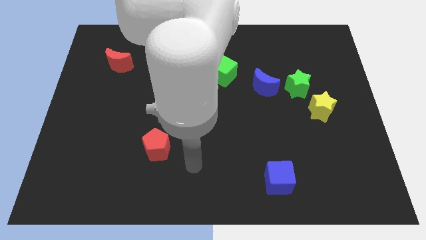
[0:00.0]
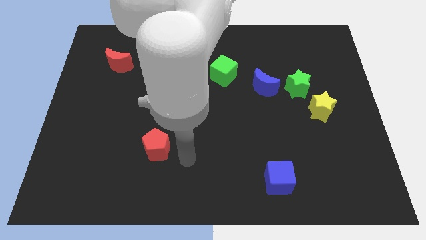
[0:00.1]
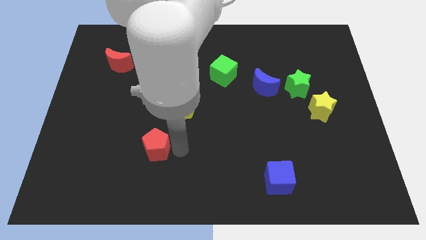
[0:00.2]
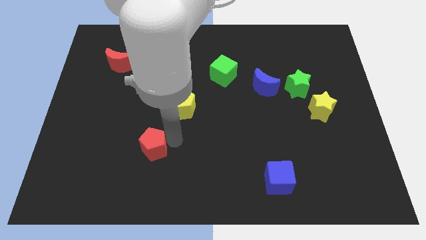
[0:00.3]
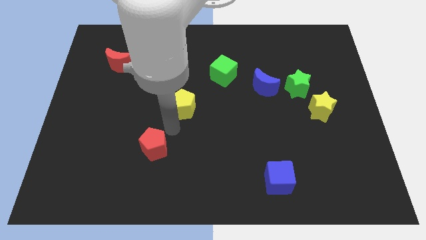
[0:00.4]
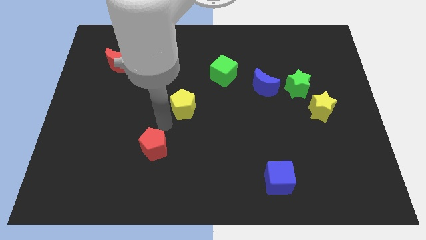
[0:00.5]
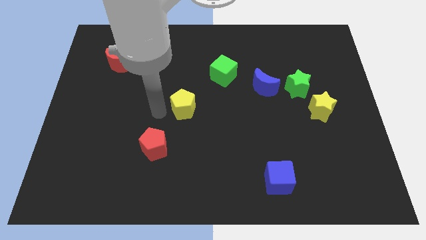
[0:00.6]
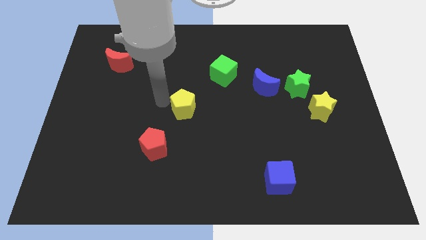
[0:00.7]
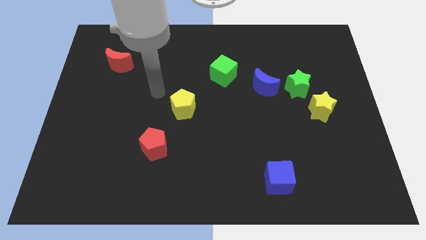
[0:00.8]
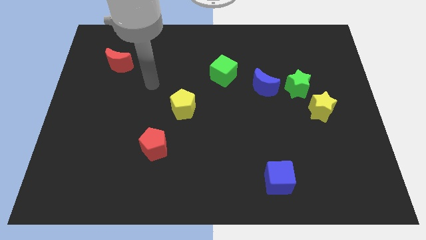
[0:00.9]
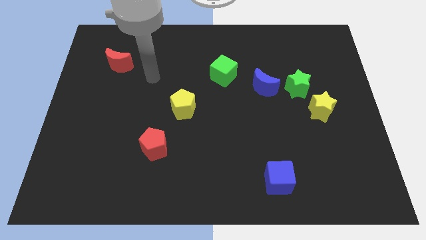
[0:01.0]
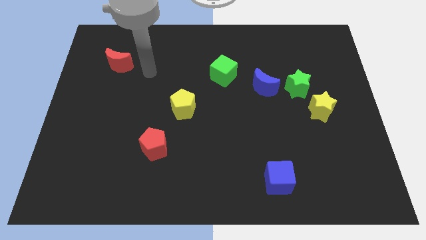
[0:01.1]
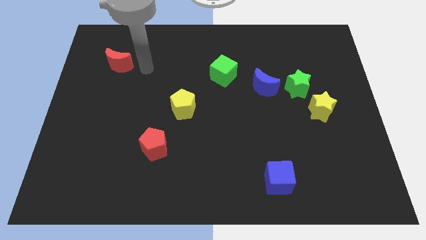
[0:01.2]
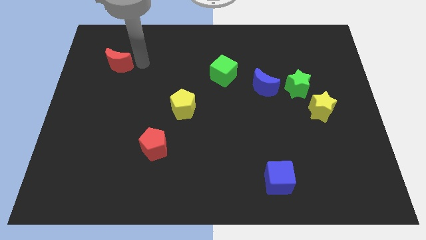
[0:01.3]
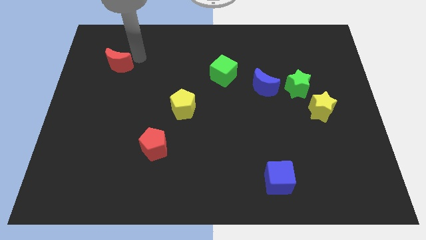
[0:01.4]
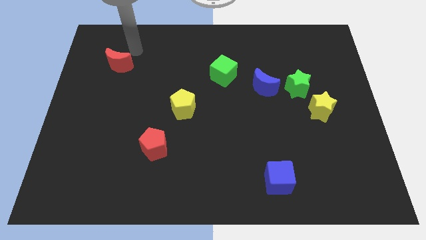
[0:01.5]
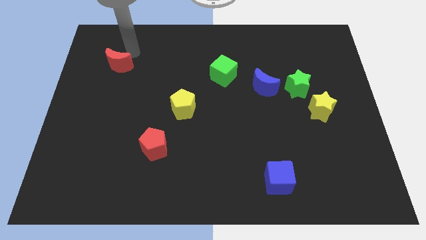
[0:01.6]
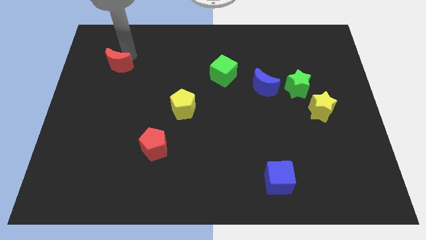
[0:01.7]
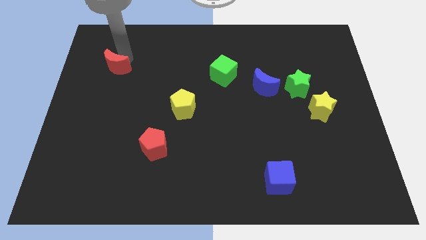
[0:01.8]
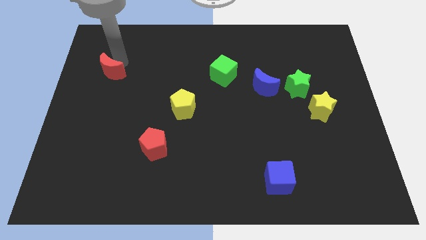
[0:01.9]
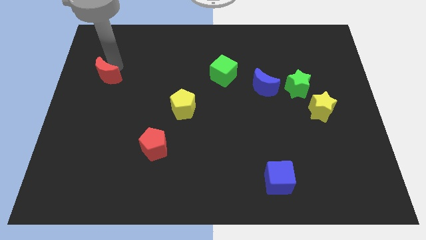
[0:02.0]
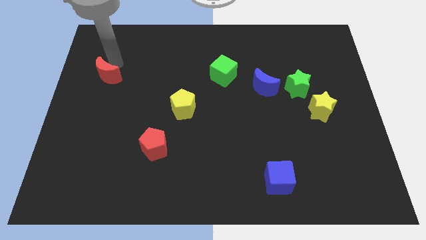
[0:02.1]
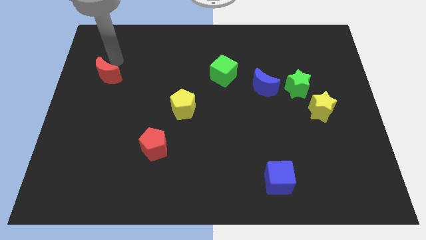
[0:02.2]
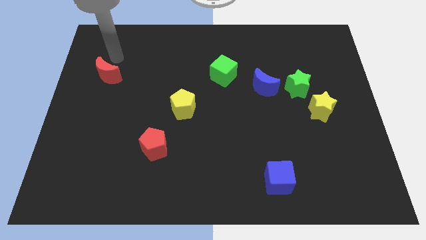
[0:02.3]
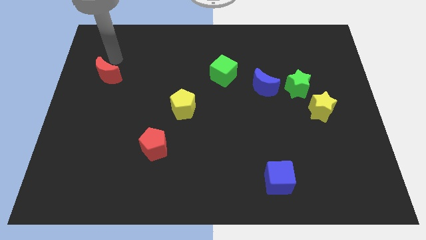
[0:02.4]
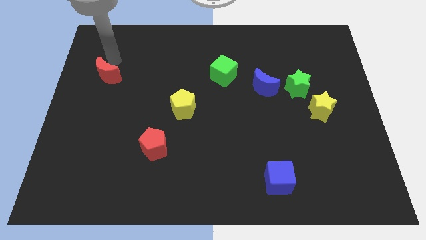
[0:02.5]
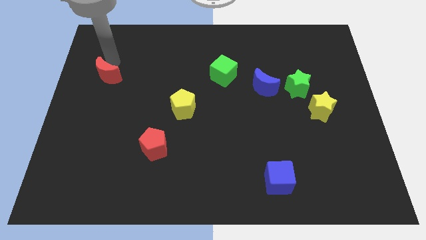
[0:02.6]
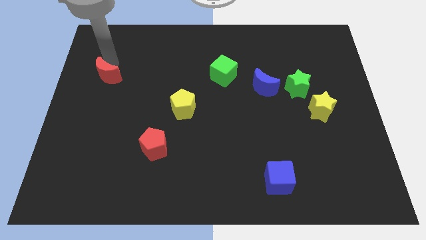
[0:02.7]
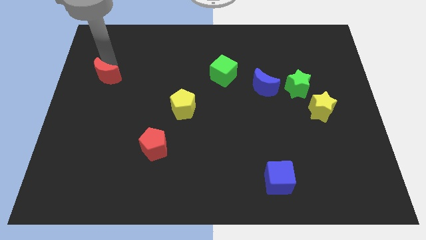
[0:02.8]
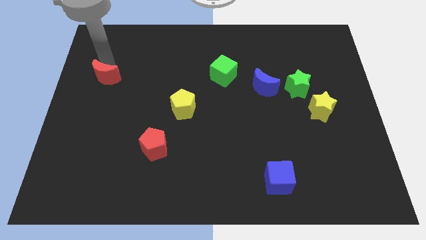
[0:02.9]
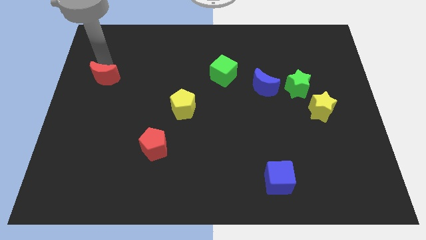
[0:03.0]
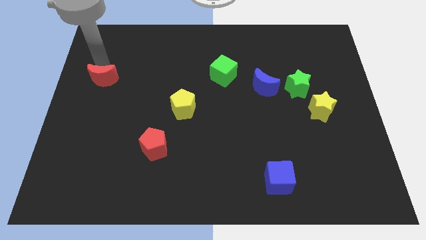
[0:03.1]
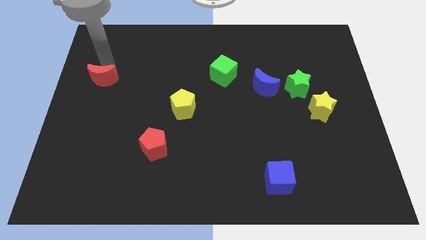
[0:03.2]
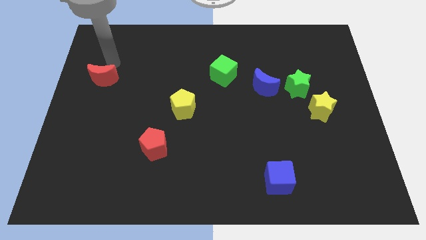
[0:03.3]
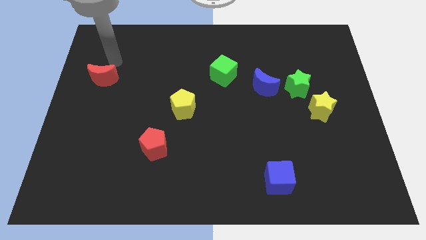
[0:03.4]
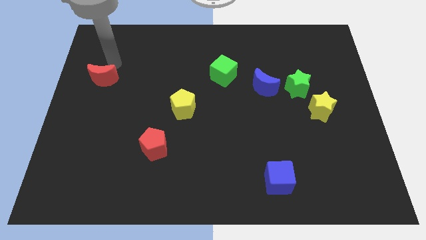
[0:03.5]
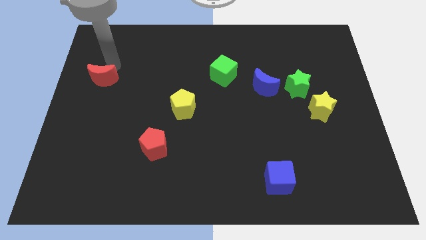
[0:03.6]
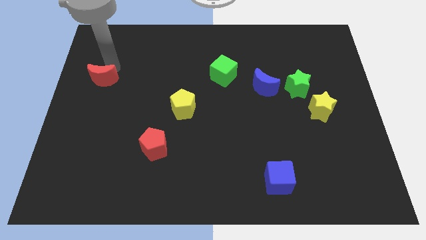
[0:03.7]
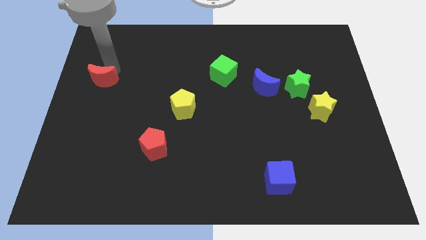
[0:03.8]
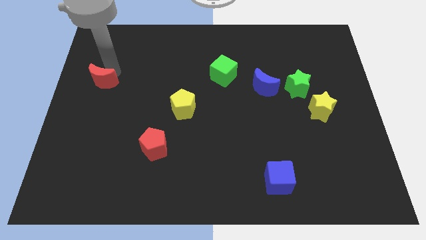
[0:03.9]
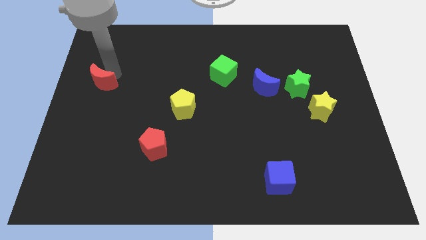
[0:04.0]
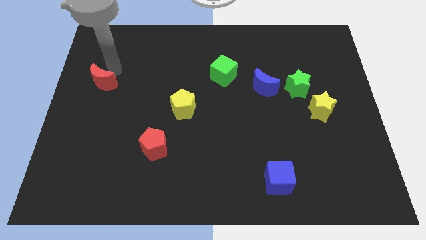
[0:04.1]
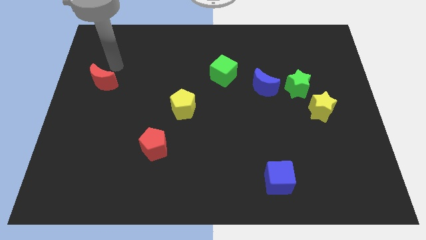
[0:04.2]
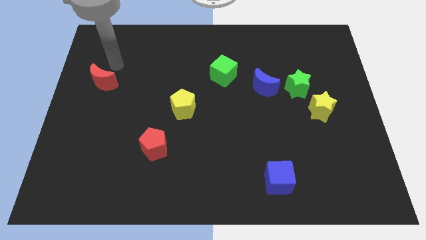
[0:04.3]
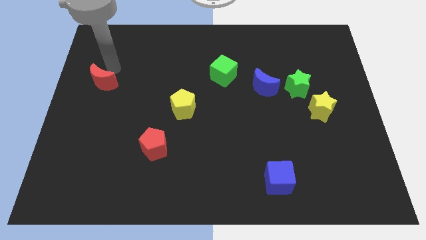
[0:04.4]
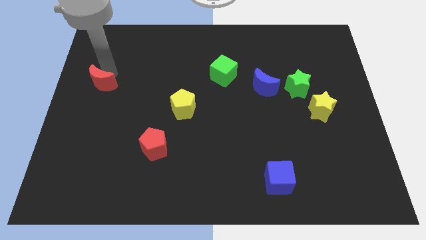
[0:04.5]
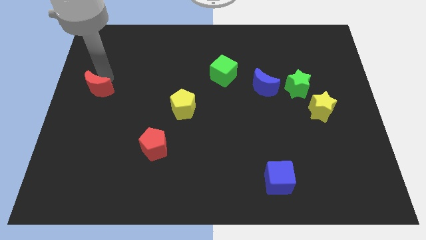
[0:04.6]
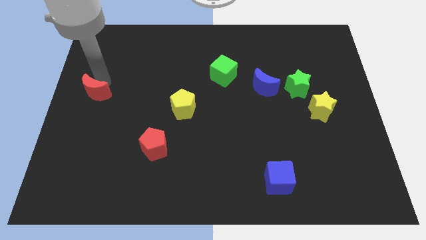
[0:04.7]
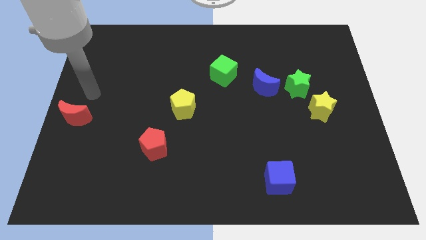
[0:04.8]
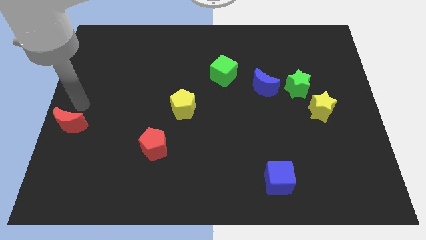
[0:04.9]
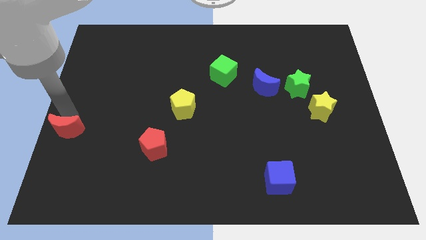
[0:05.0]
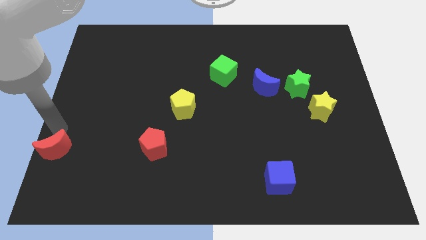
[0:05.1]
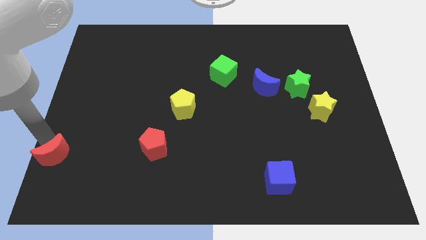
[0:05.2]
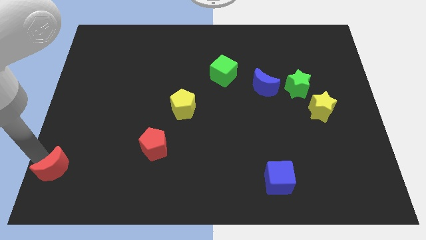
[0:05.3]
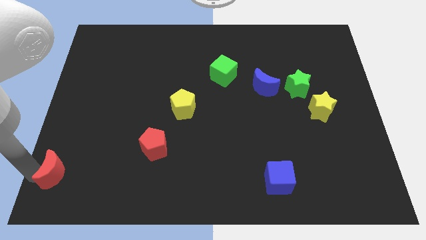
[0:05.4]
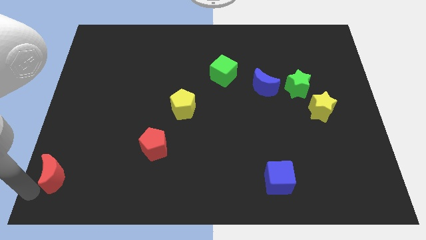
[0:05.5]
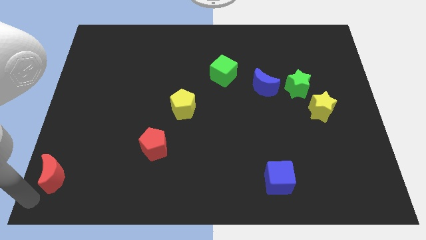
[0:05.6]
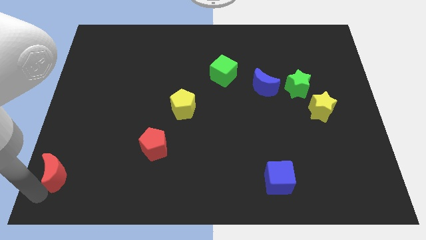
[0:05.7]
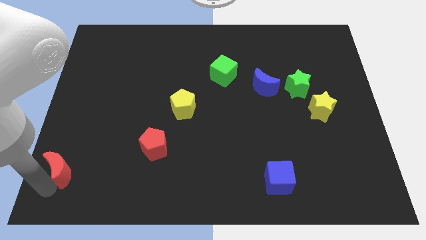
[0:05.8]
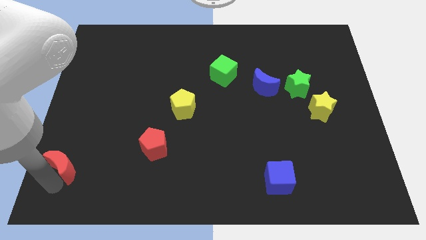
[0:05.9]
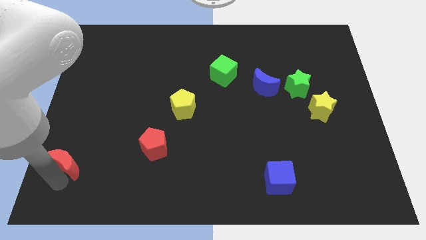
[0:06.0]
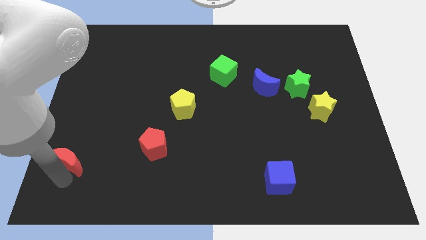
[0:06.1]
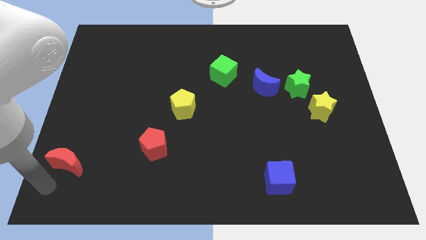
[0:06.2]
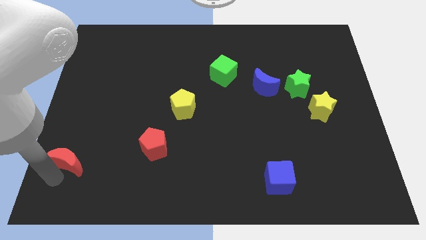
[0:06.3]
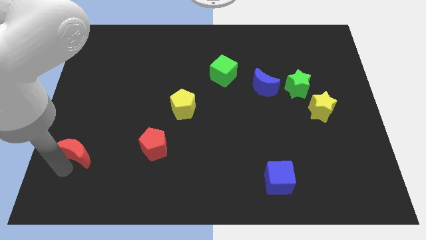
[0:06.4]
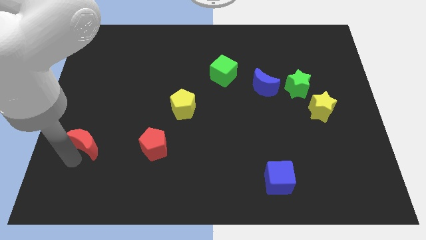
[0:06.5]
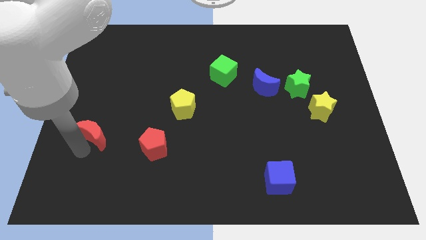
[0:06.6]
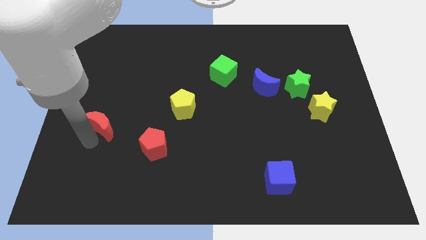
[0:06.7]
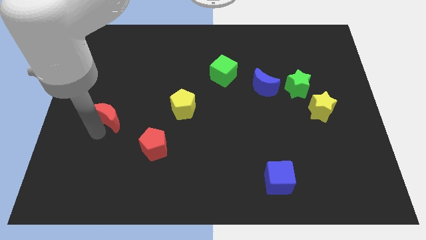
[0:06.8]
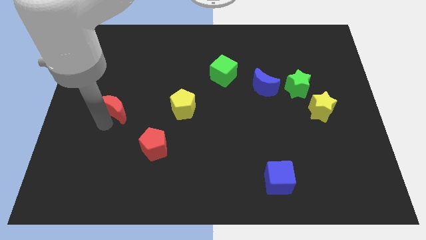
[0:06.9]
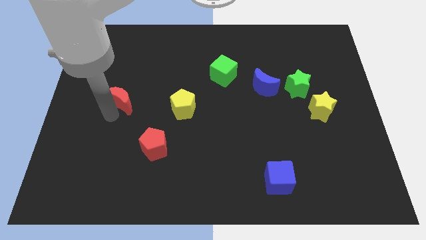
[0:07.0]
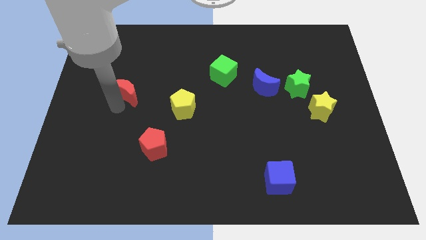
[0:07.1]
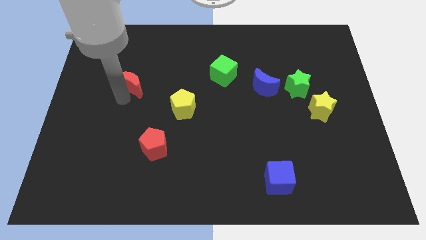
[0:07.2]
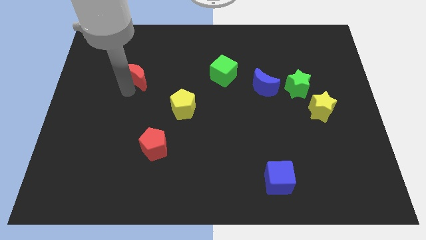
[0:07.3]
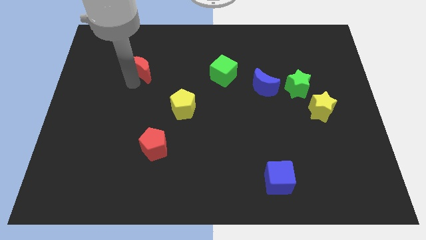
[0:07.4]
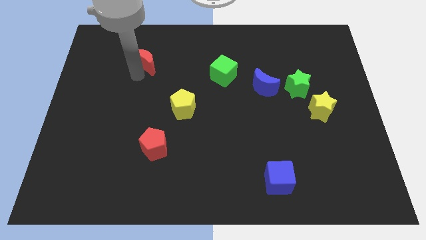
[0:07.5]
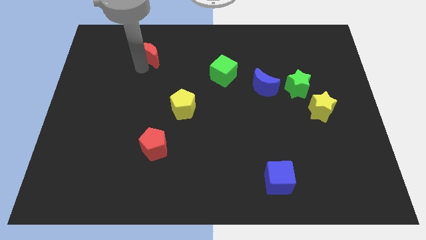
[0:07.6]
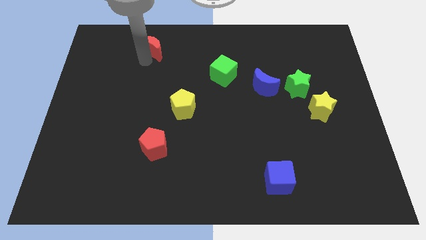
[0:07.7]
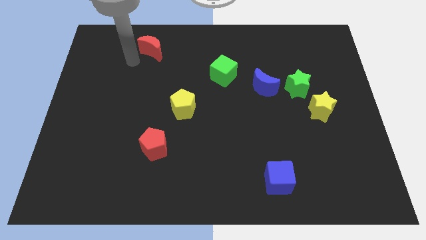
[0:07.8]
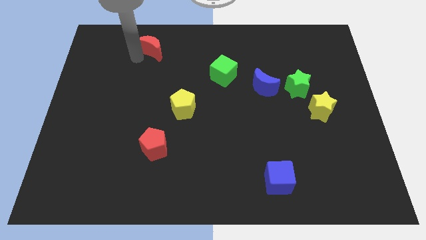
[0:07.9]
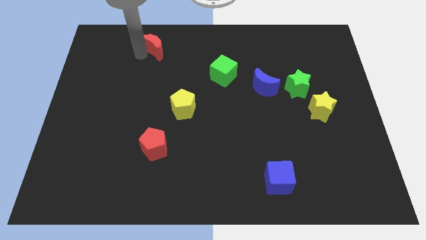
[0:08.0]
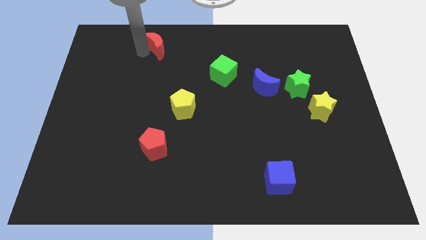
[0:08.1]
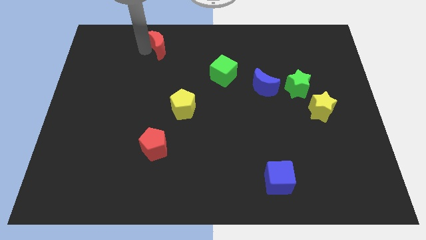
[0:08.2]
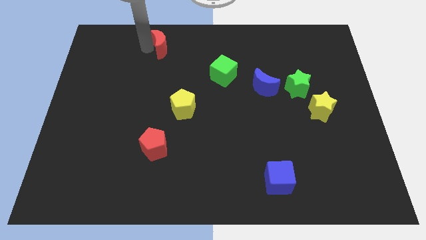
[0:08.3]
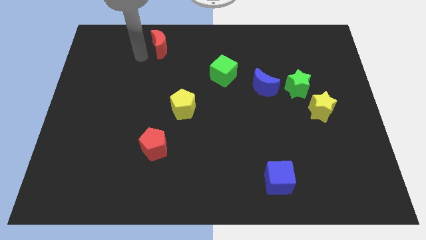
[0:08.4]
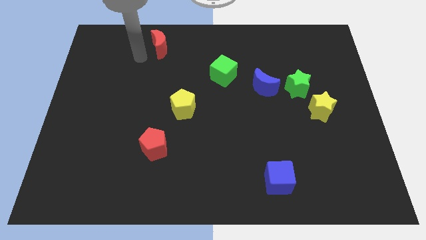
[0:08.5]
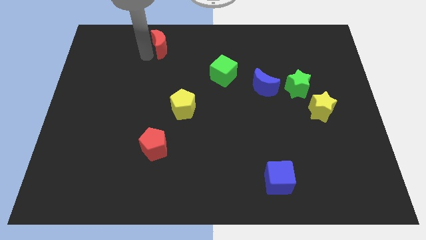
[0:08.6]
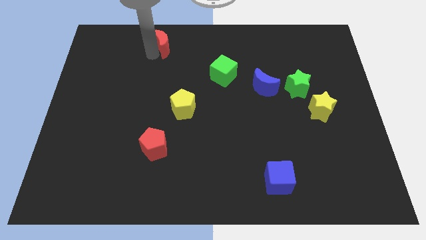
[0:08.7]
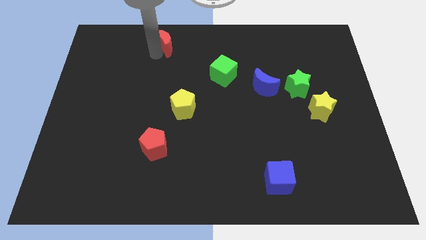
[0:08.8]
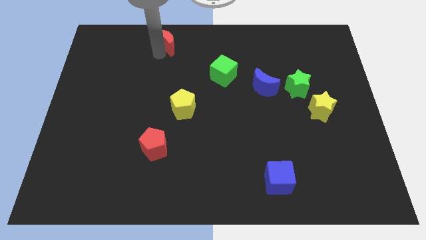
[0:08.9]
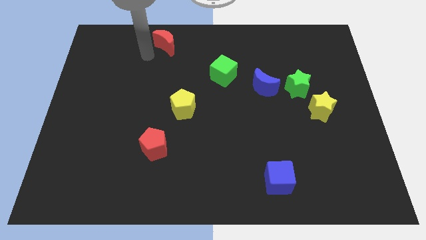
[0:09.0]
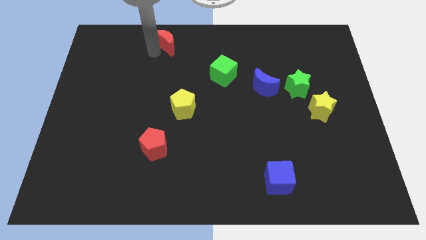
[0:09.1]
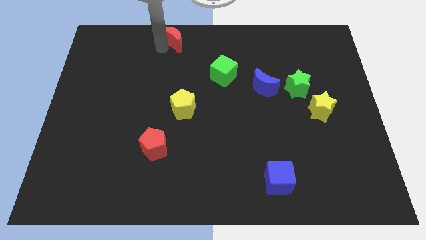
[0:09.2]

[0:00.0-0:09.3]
slide the red moon to the towards your base
